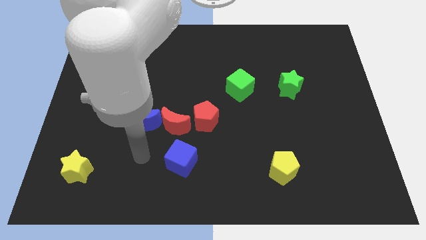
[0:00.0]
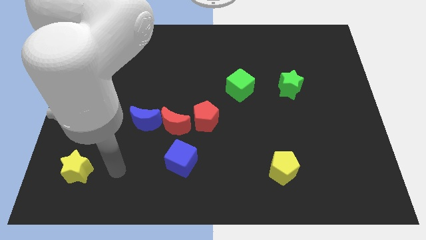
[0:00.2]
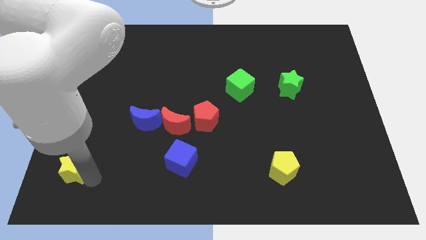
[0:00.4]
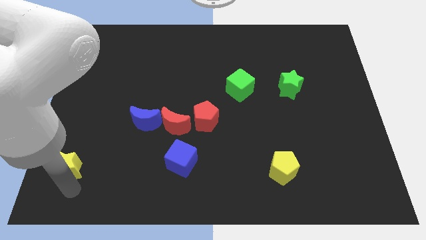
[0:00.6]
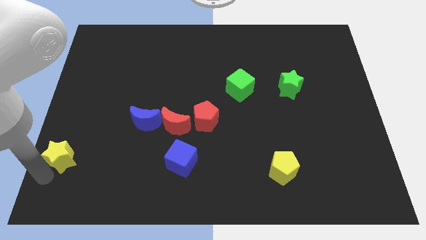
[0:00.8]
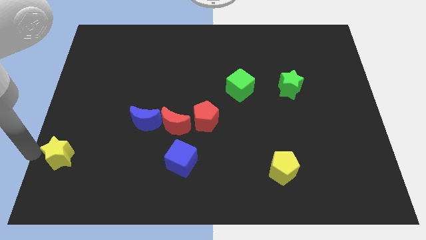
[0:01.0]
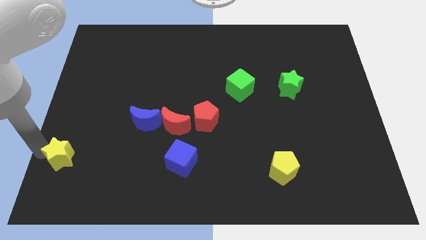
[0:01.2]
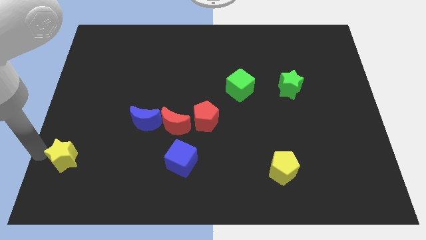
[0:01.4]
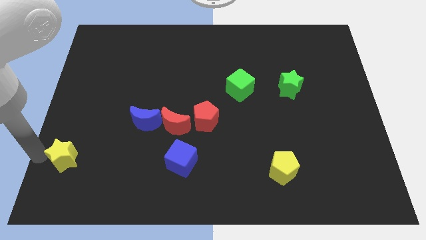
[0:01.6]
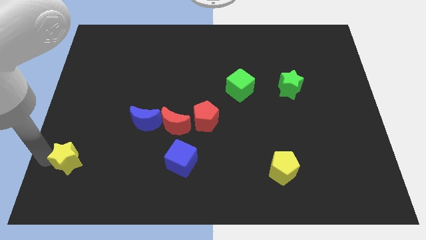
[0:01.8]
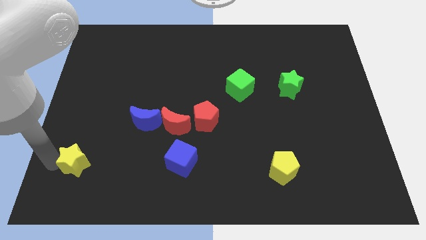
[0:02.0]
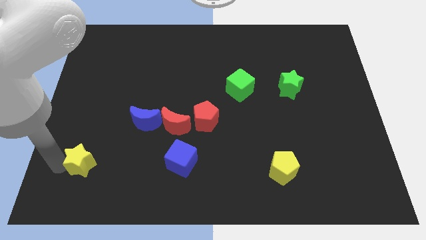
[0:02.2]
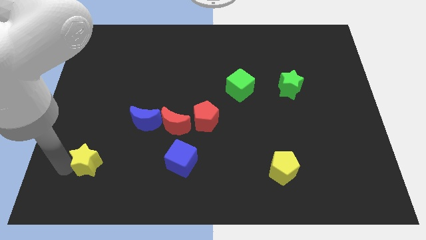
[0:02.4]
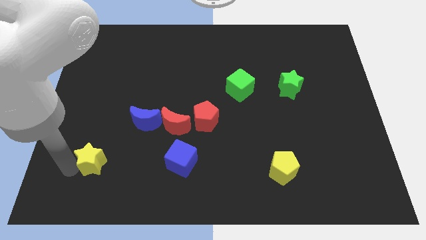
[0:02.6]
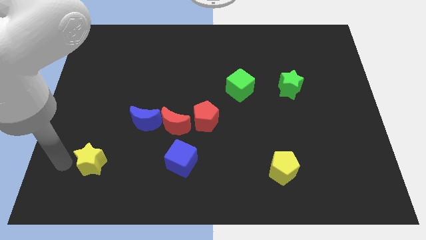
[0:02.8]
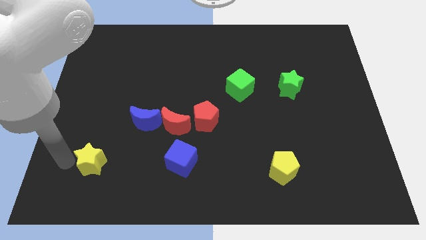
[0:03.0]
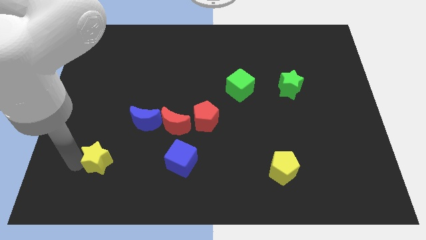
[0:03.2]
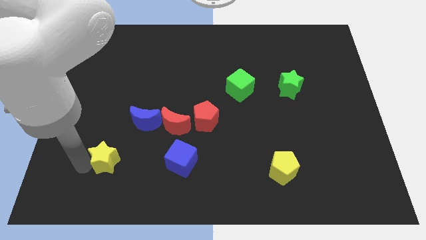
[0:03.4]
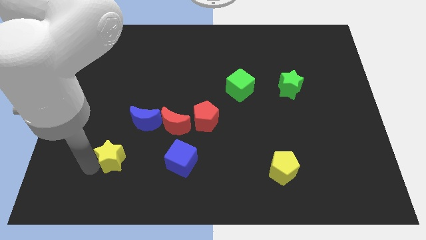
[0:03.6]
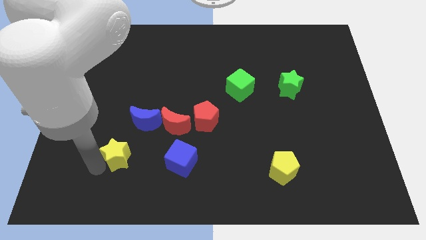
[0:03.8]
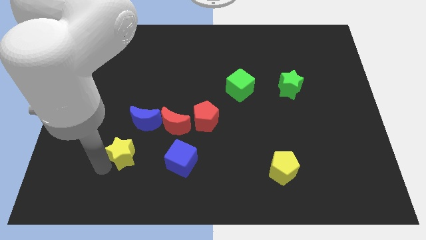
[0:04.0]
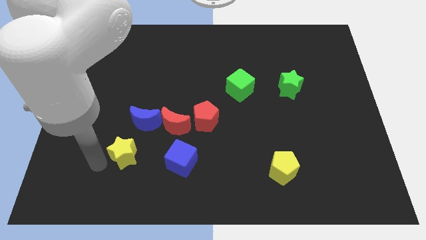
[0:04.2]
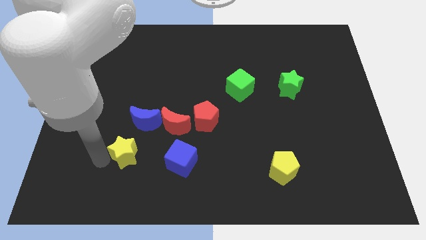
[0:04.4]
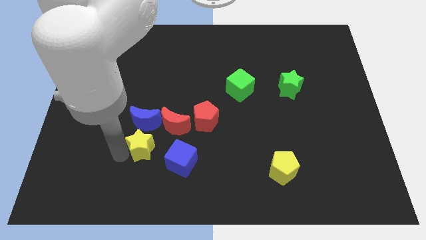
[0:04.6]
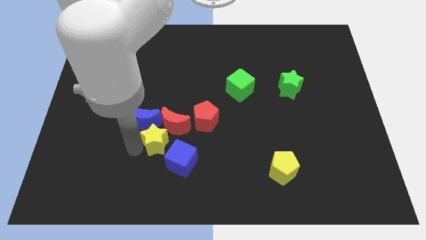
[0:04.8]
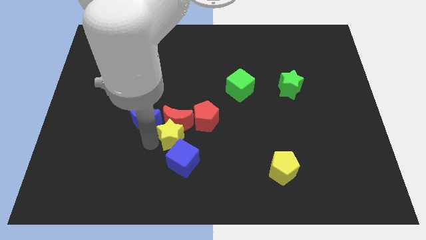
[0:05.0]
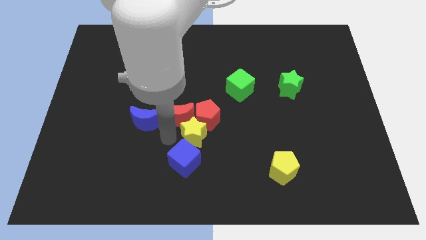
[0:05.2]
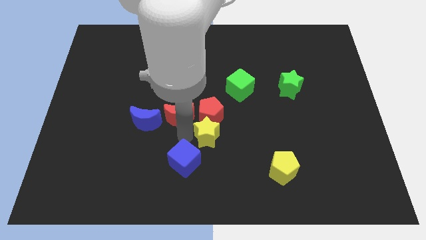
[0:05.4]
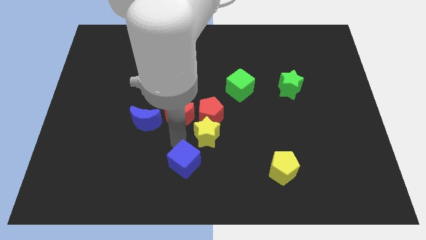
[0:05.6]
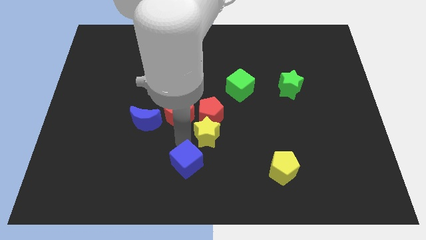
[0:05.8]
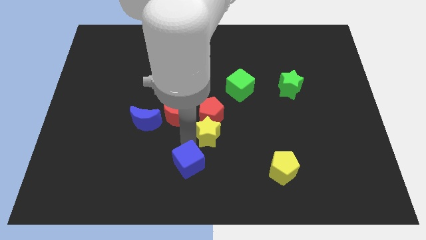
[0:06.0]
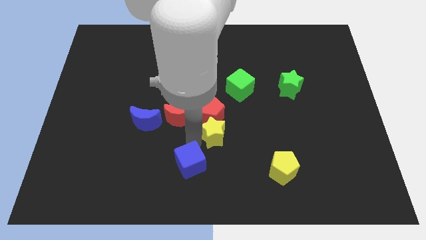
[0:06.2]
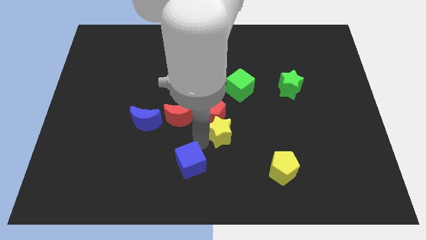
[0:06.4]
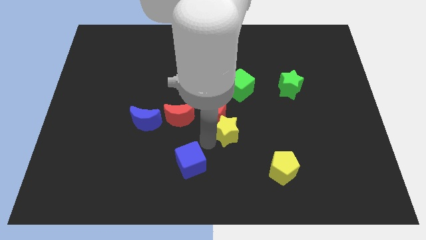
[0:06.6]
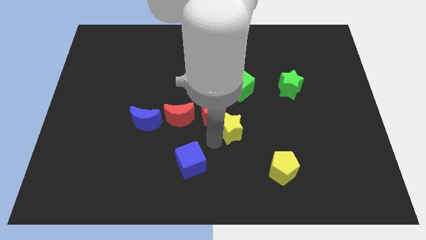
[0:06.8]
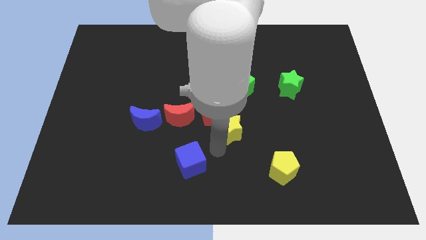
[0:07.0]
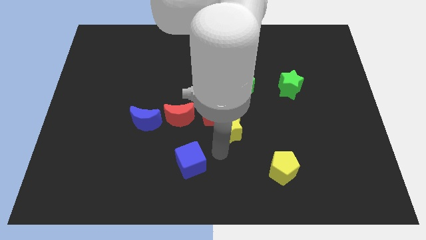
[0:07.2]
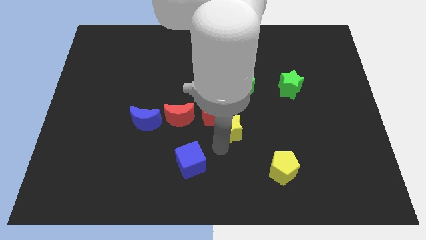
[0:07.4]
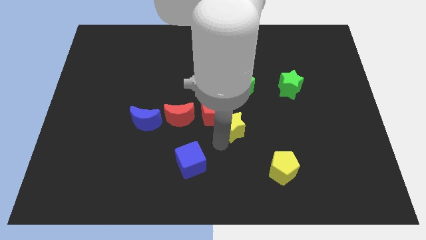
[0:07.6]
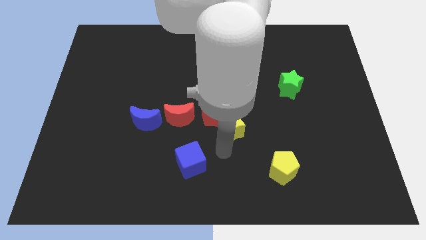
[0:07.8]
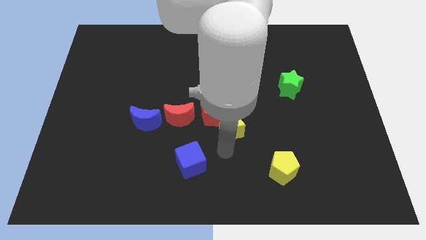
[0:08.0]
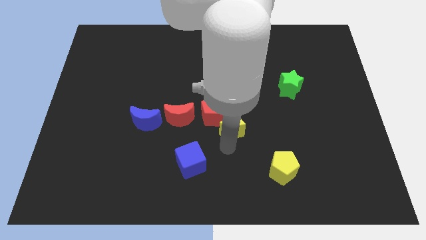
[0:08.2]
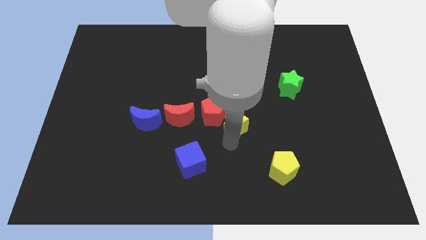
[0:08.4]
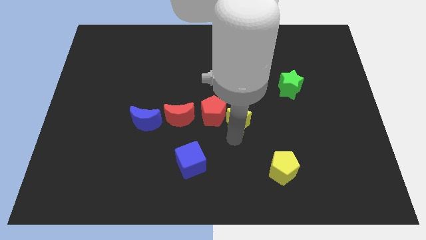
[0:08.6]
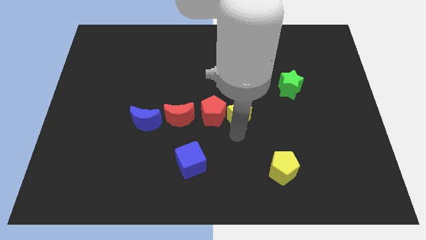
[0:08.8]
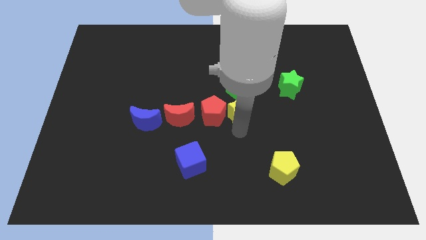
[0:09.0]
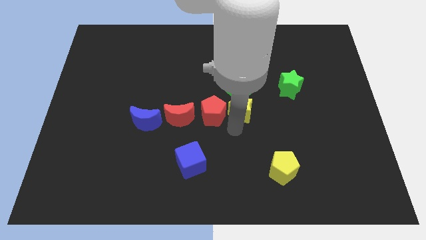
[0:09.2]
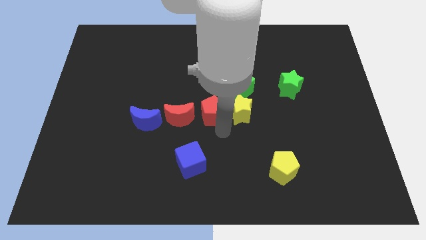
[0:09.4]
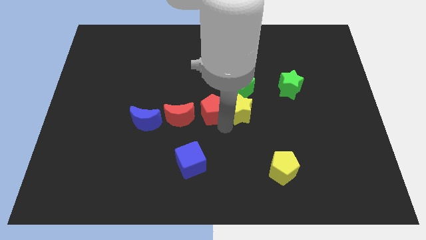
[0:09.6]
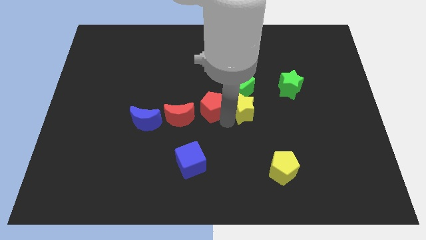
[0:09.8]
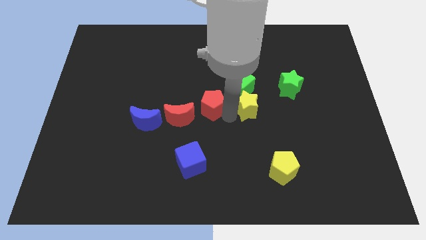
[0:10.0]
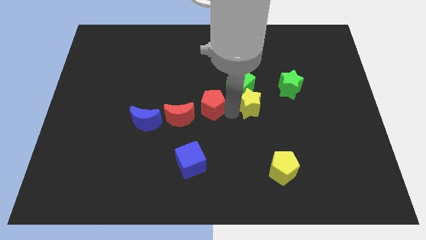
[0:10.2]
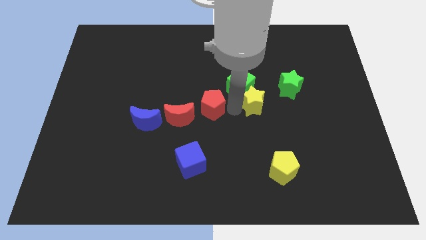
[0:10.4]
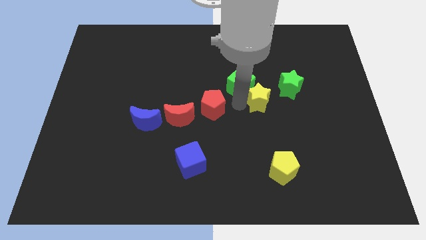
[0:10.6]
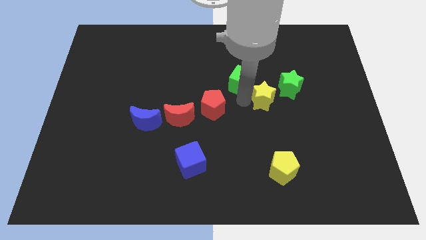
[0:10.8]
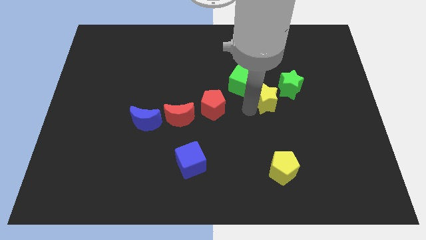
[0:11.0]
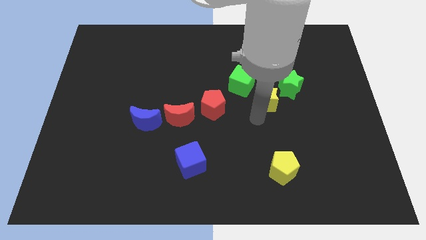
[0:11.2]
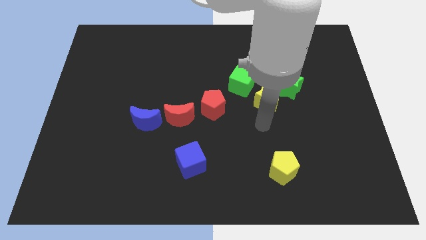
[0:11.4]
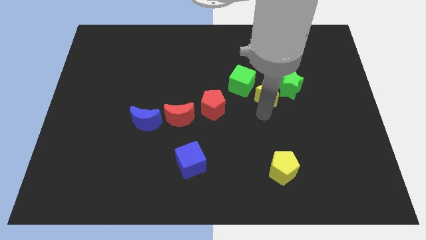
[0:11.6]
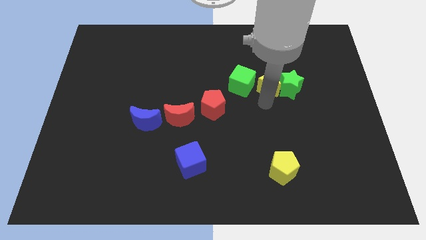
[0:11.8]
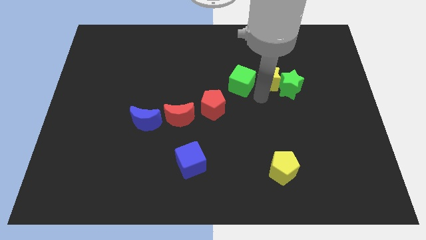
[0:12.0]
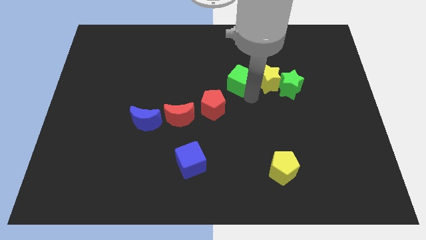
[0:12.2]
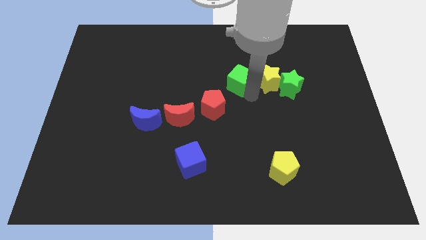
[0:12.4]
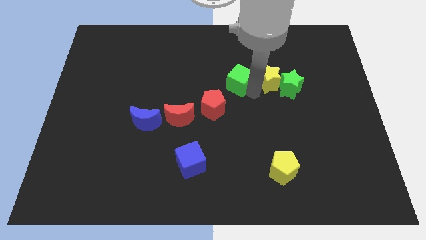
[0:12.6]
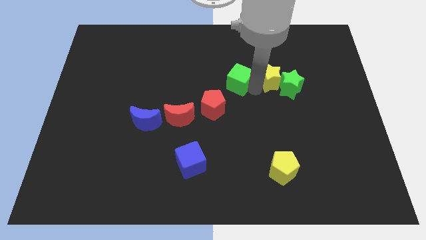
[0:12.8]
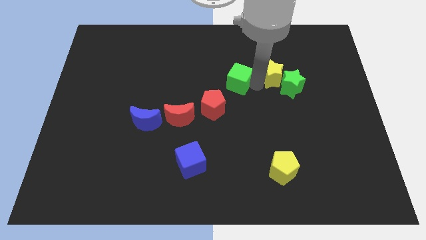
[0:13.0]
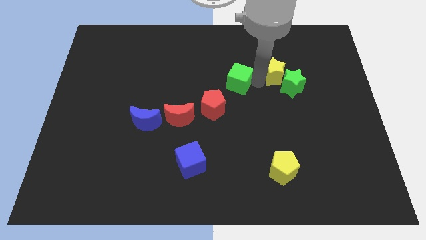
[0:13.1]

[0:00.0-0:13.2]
slide the yellow star to the top side of the green star
